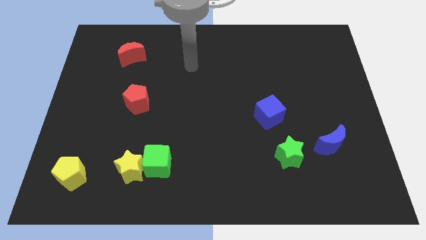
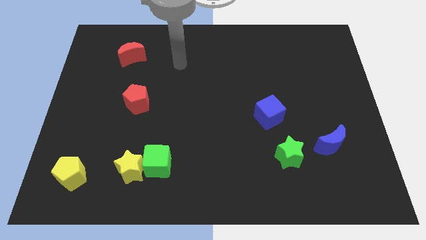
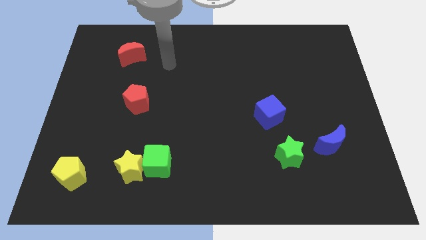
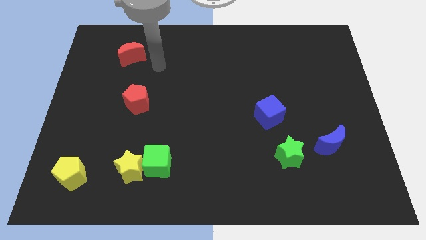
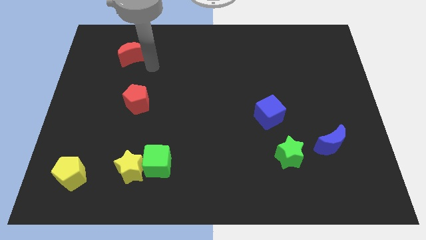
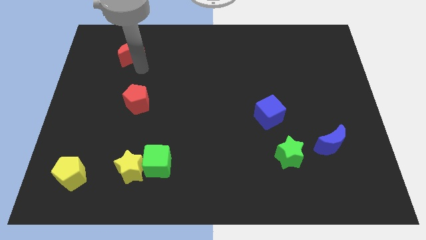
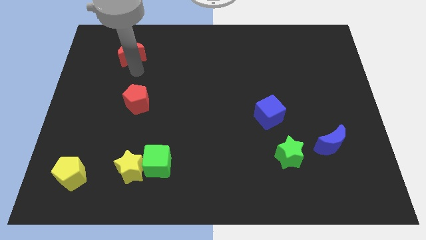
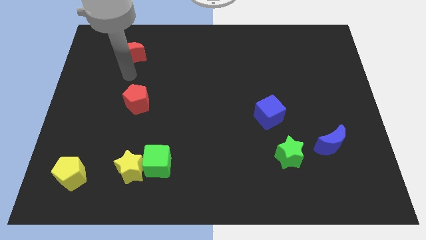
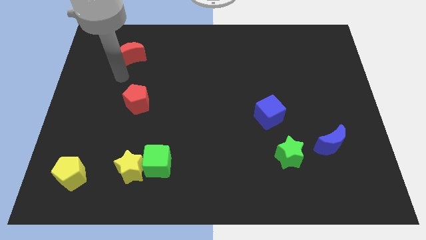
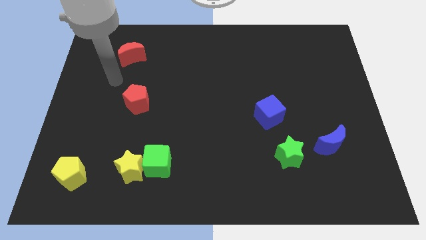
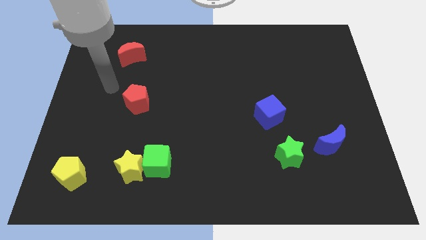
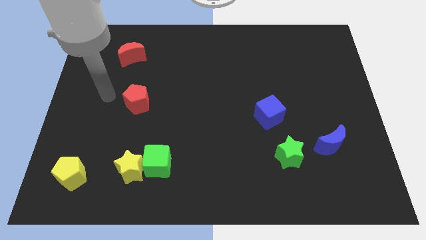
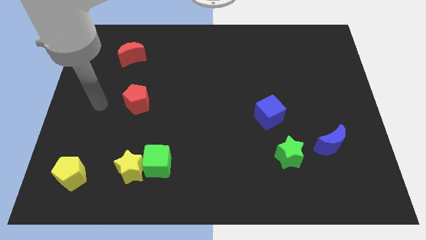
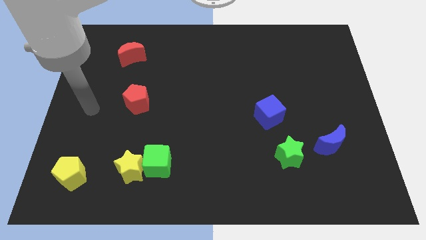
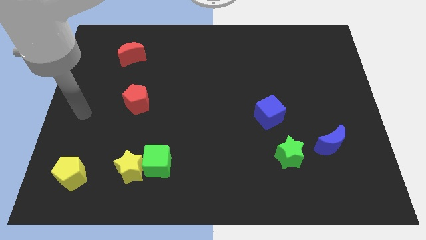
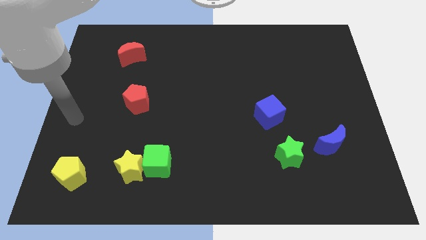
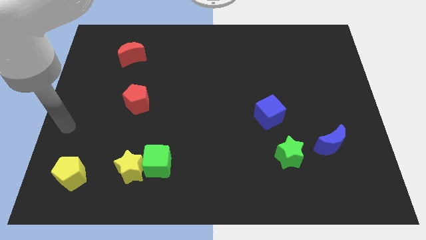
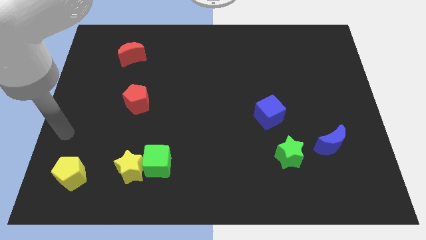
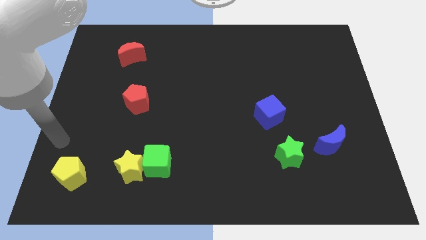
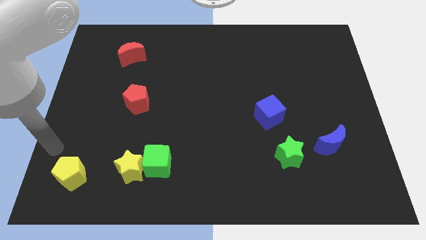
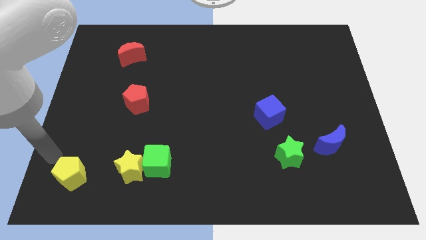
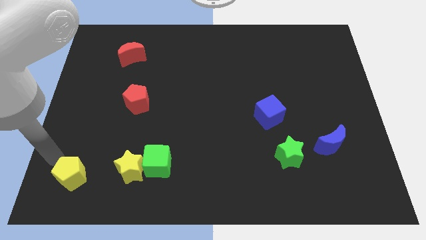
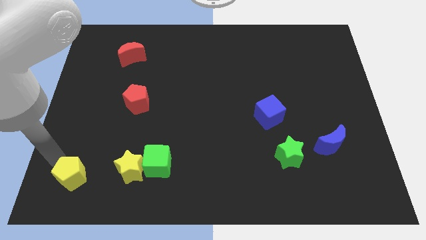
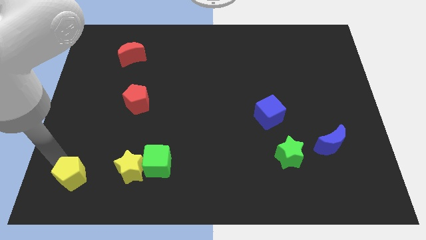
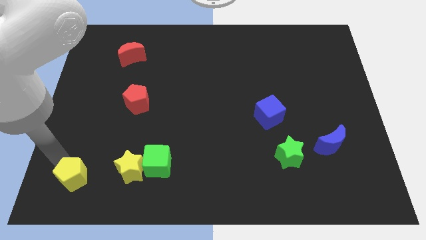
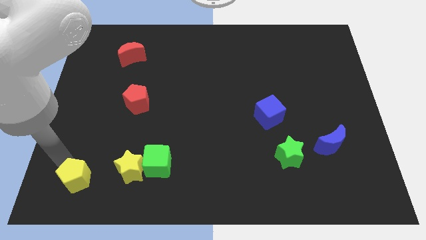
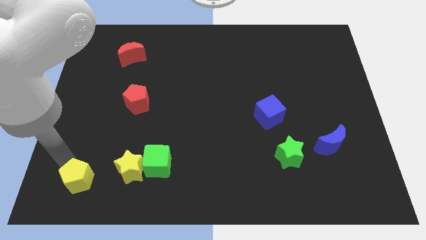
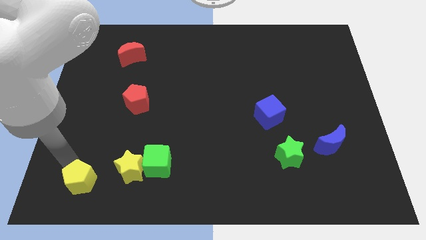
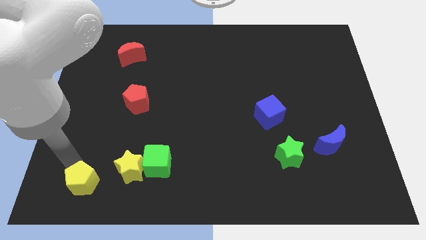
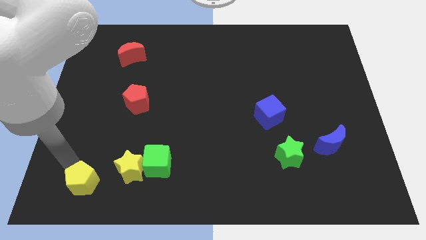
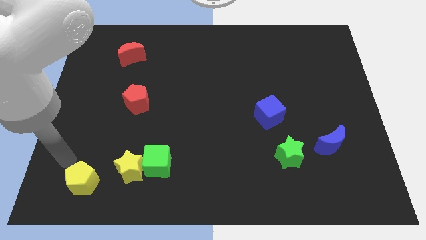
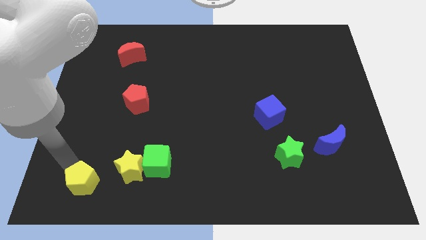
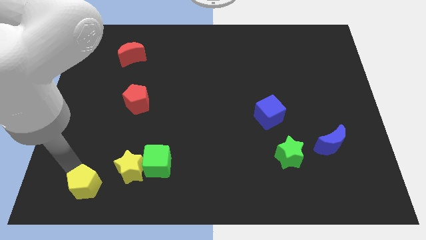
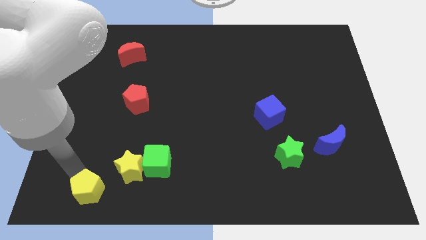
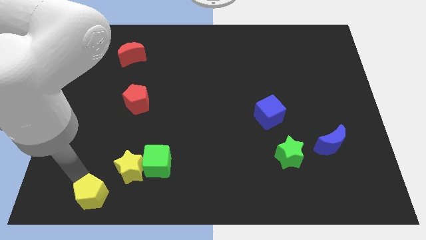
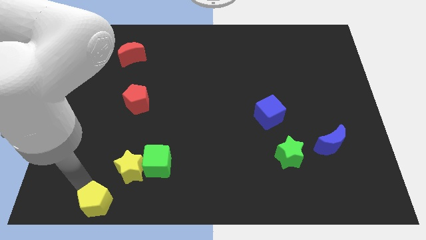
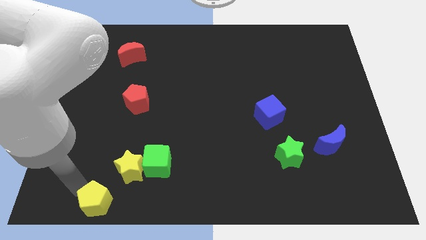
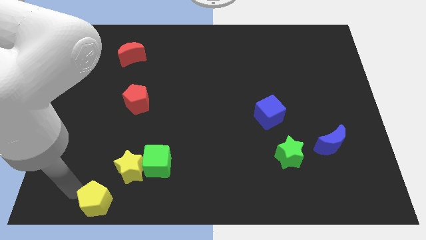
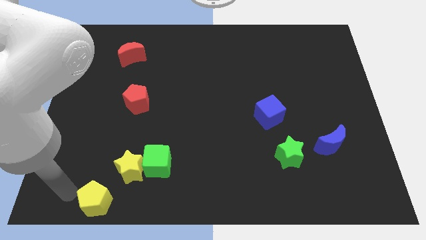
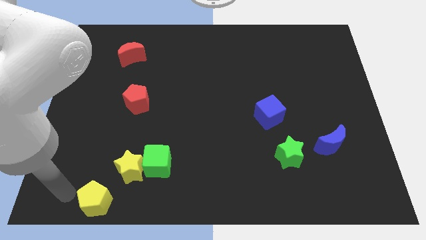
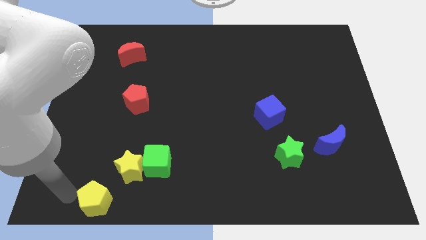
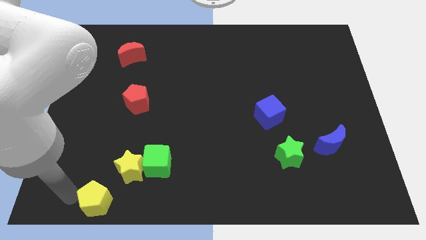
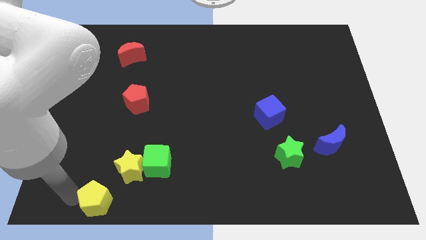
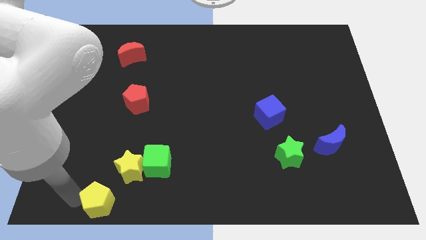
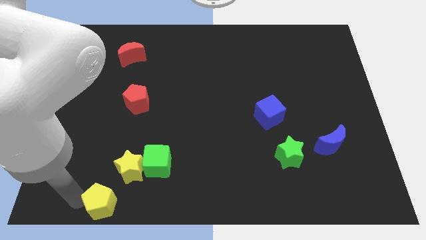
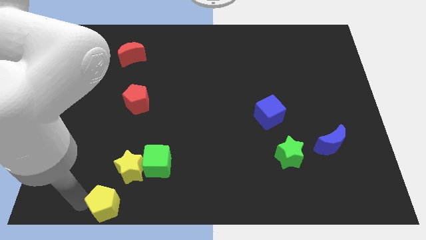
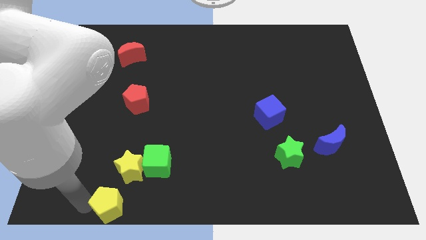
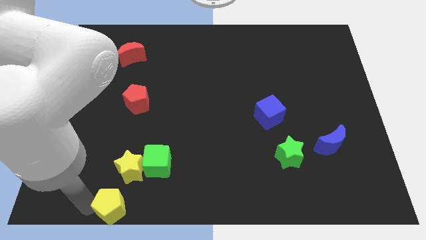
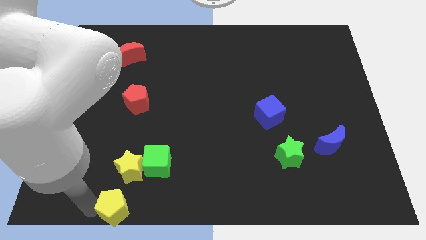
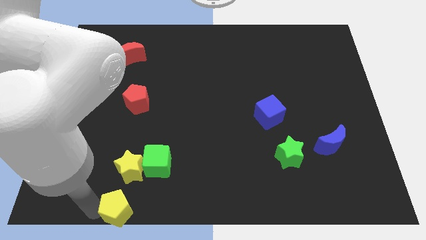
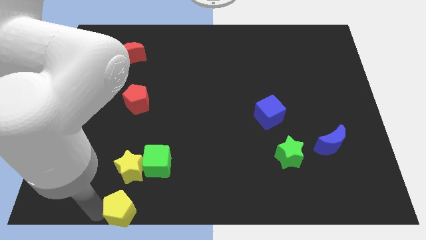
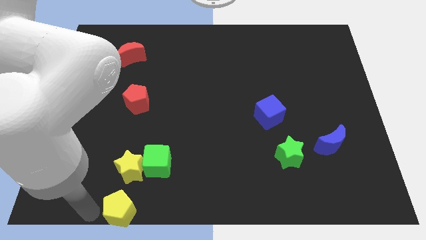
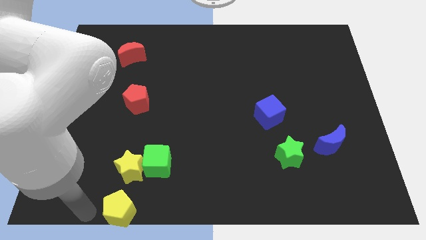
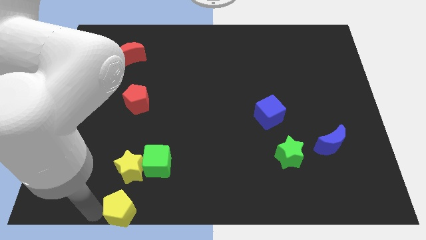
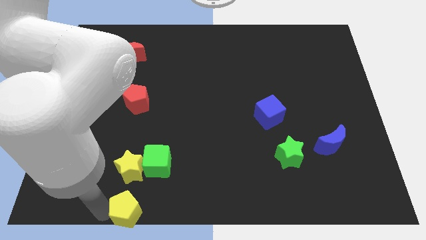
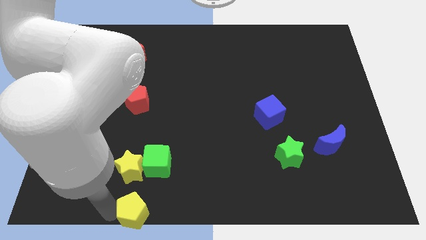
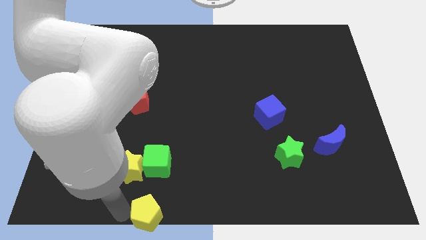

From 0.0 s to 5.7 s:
put the yellow pentagon to the bottom
